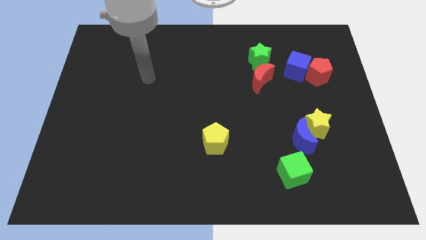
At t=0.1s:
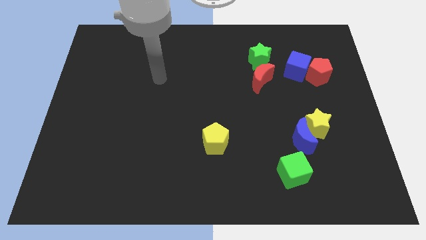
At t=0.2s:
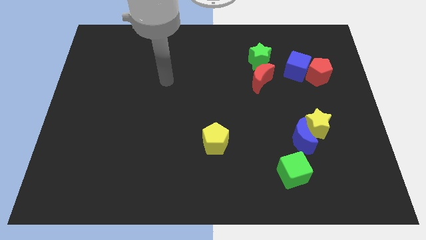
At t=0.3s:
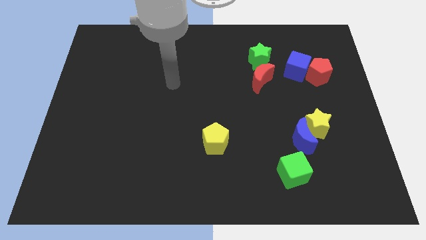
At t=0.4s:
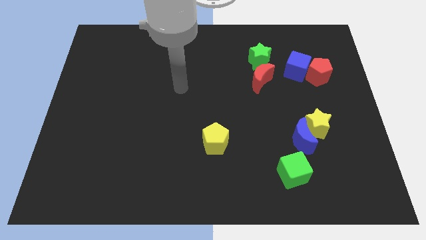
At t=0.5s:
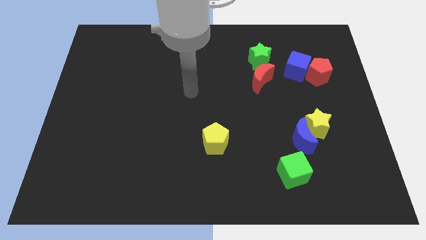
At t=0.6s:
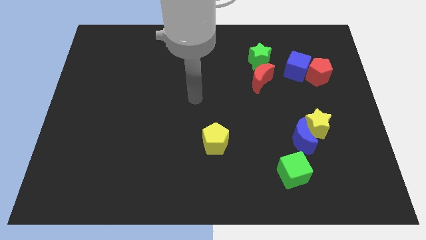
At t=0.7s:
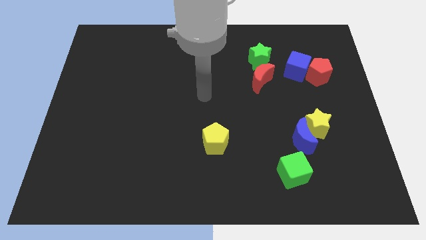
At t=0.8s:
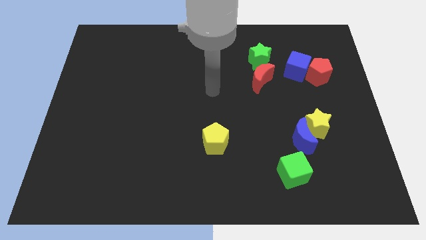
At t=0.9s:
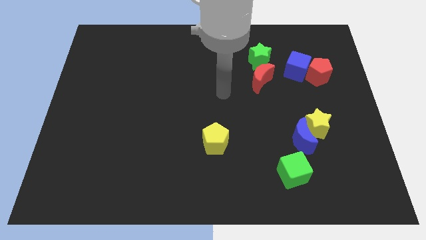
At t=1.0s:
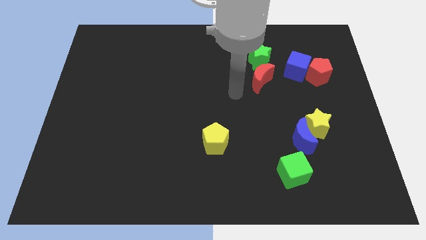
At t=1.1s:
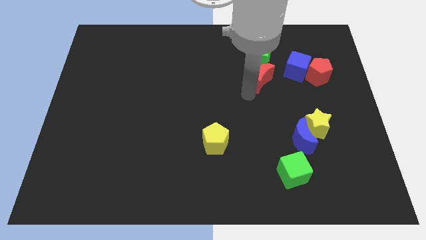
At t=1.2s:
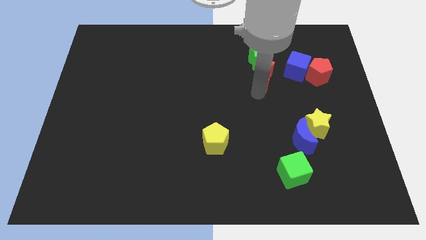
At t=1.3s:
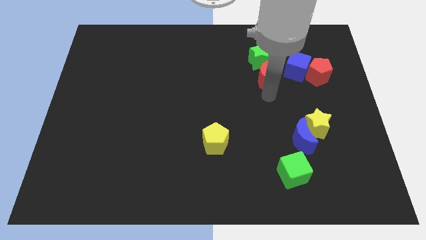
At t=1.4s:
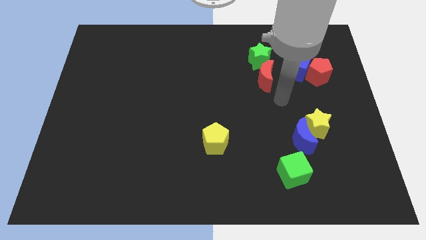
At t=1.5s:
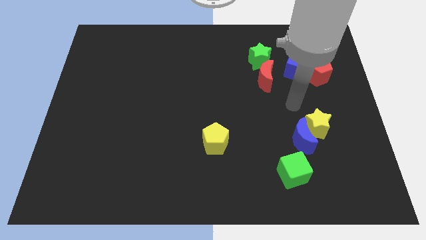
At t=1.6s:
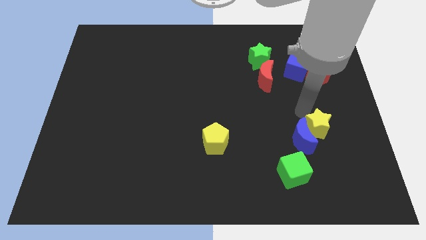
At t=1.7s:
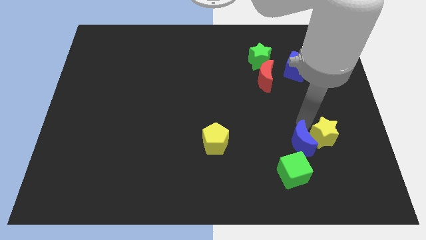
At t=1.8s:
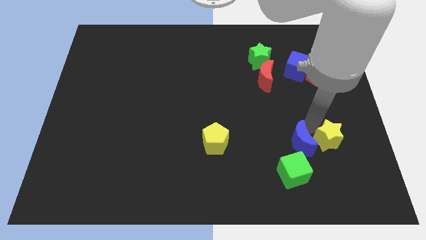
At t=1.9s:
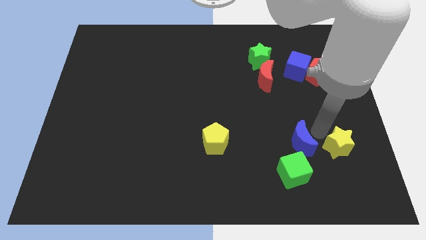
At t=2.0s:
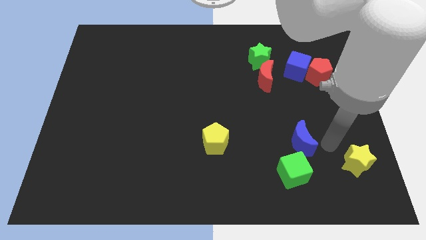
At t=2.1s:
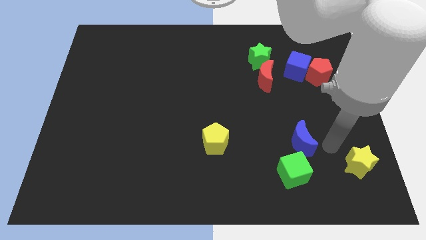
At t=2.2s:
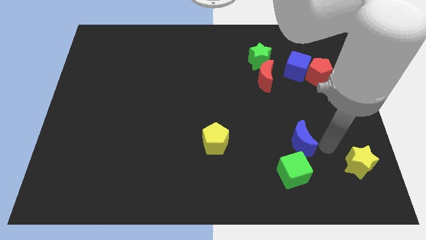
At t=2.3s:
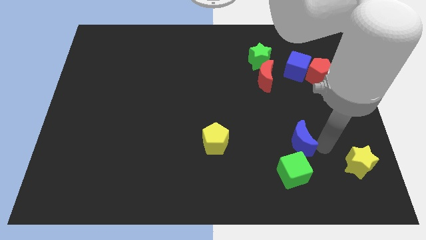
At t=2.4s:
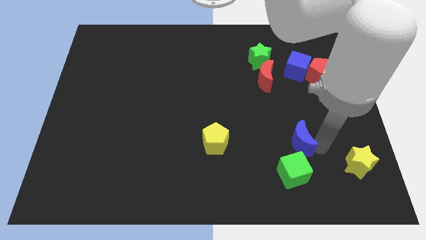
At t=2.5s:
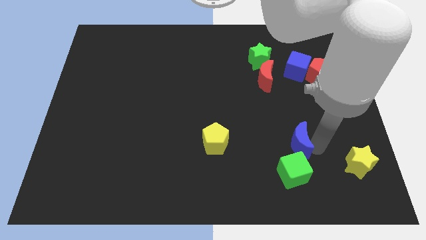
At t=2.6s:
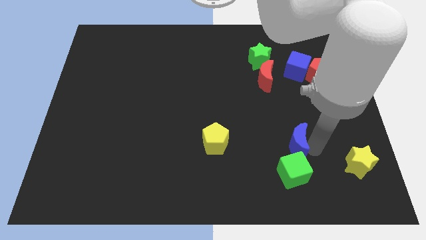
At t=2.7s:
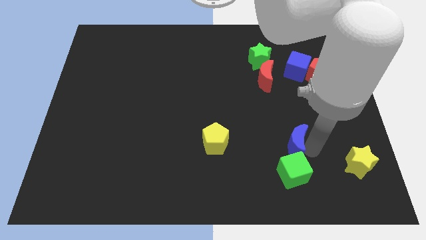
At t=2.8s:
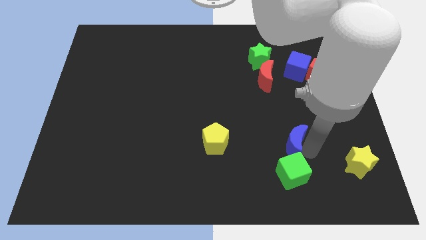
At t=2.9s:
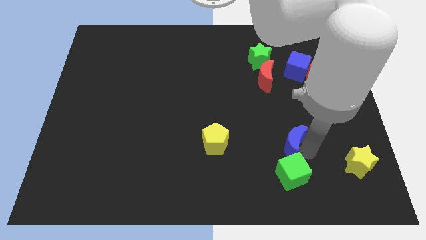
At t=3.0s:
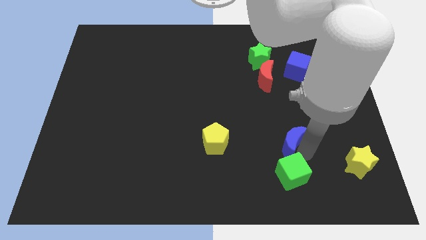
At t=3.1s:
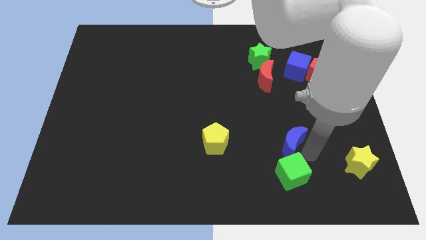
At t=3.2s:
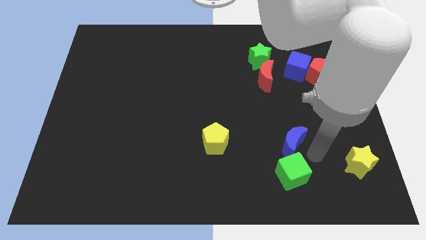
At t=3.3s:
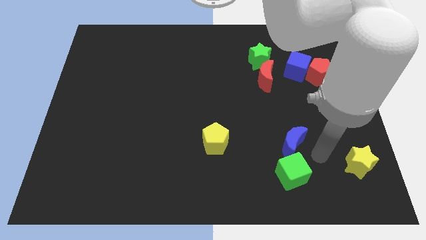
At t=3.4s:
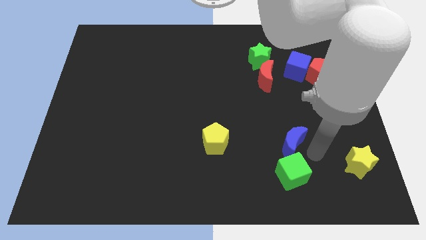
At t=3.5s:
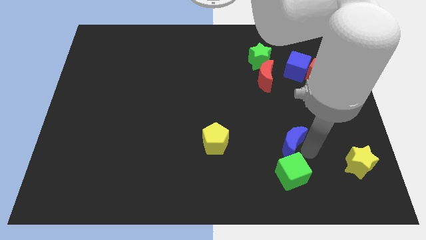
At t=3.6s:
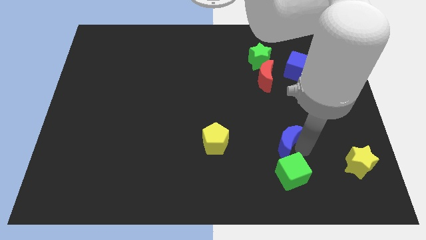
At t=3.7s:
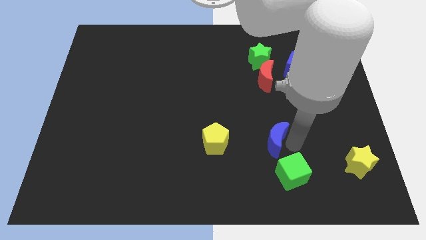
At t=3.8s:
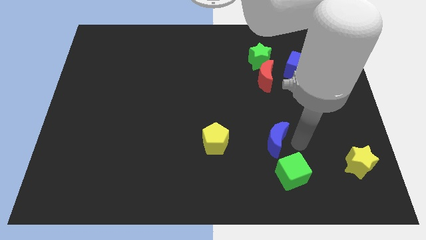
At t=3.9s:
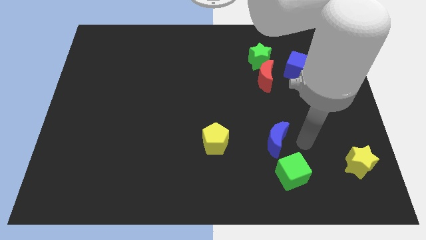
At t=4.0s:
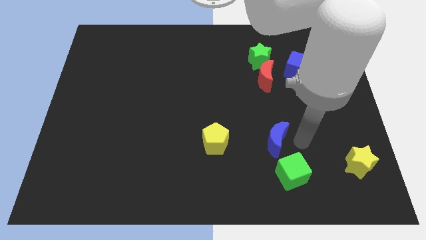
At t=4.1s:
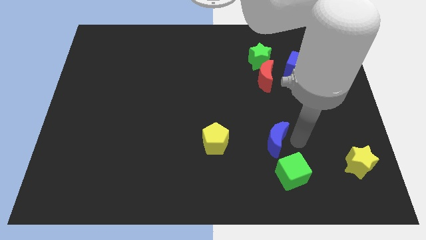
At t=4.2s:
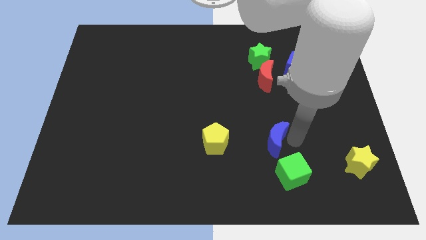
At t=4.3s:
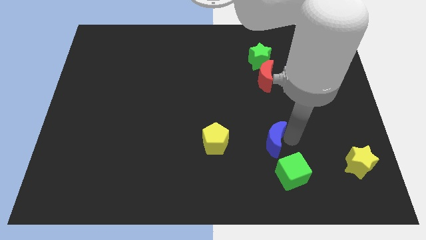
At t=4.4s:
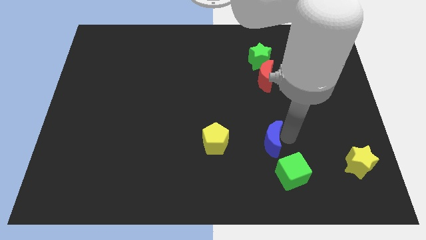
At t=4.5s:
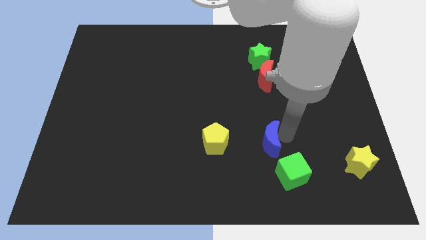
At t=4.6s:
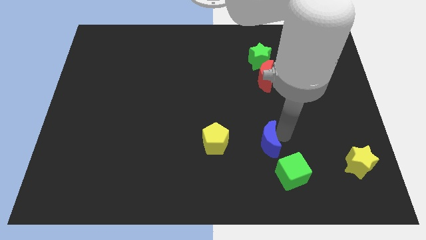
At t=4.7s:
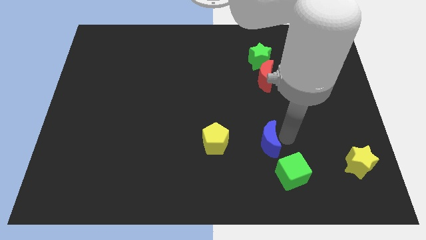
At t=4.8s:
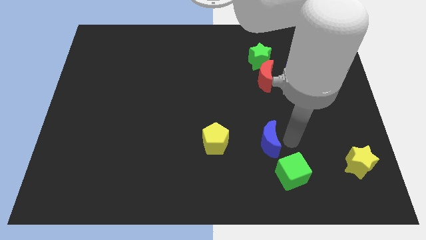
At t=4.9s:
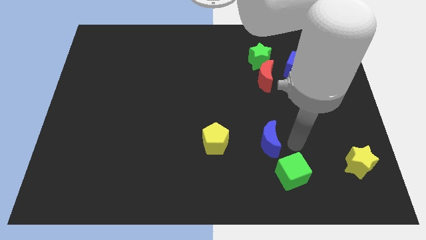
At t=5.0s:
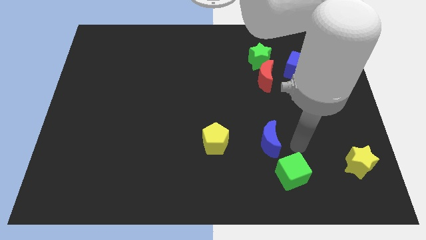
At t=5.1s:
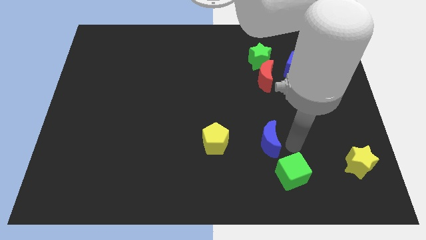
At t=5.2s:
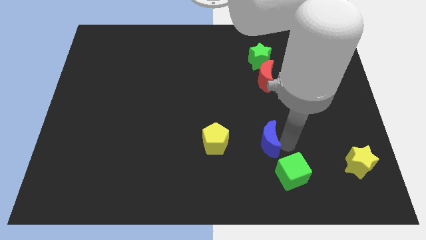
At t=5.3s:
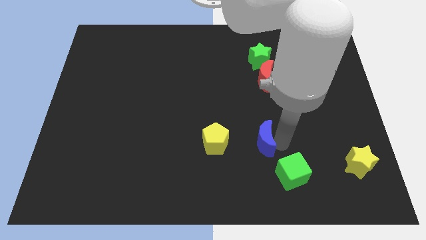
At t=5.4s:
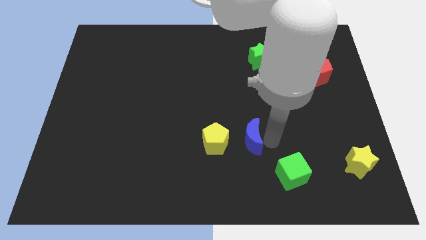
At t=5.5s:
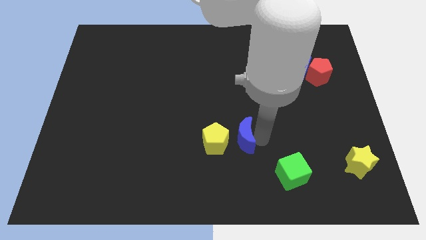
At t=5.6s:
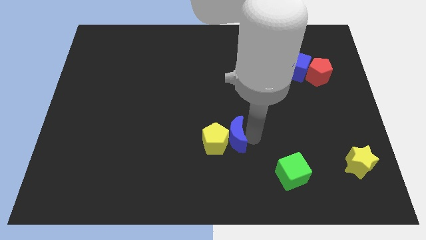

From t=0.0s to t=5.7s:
push the blue moon towards the yellow pentagon
